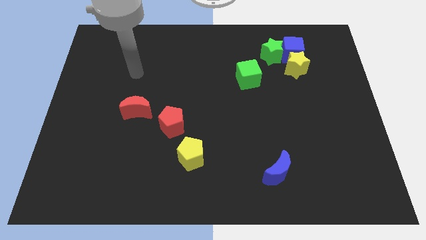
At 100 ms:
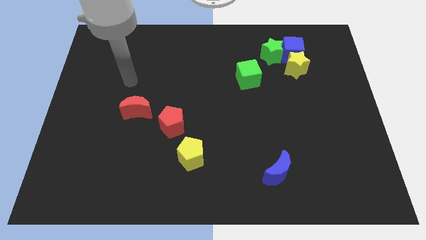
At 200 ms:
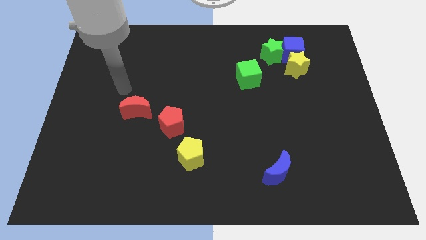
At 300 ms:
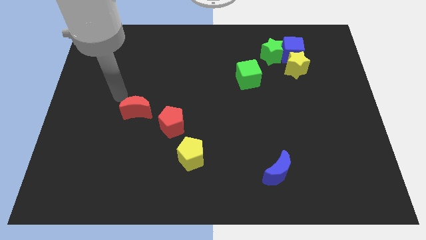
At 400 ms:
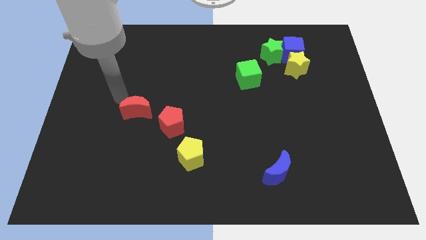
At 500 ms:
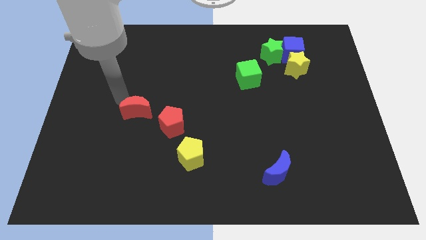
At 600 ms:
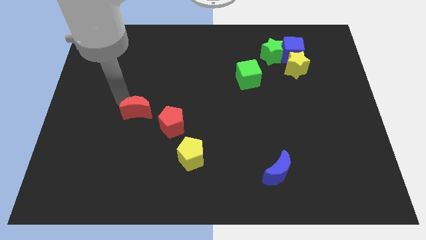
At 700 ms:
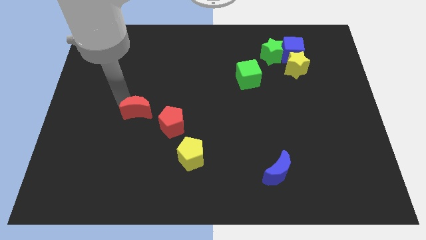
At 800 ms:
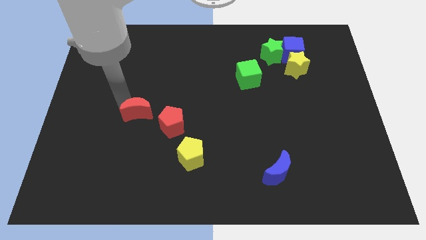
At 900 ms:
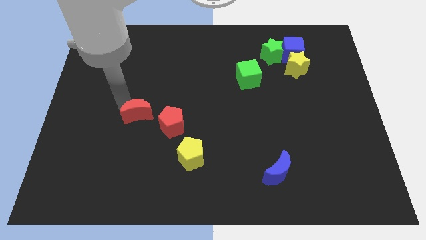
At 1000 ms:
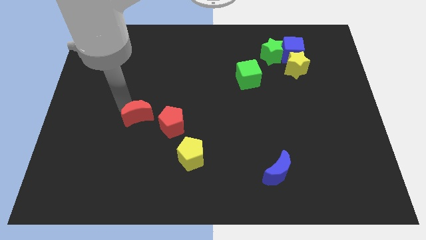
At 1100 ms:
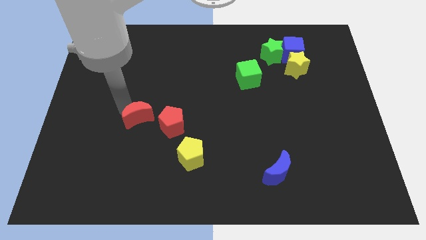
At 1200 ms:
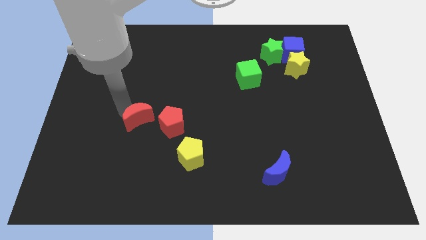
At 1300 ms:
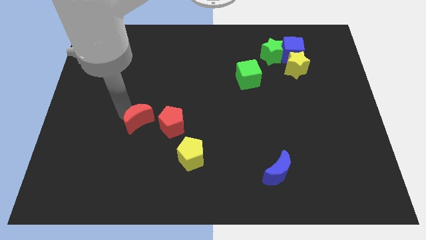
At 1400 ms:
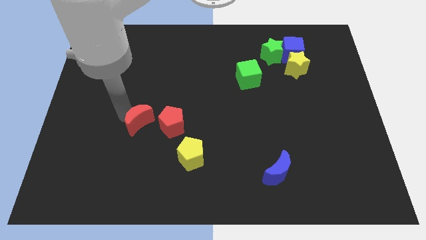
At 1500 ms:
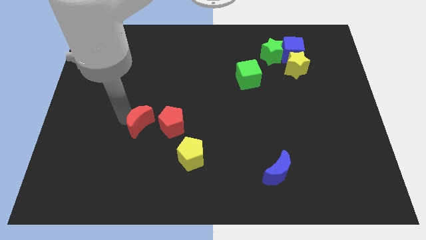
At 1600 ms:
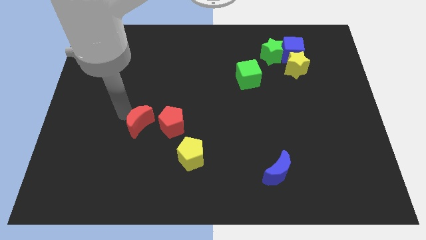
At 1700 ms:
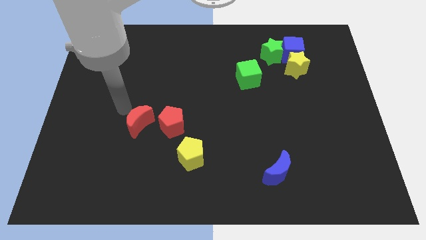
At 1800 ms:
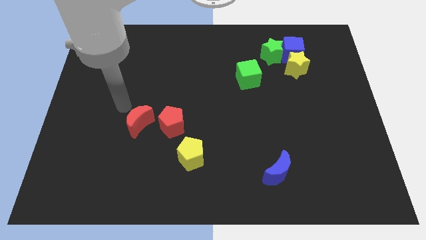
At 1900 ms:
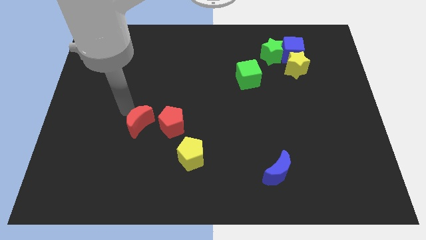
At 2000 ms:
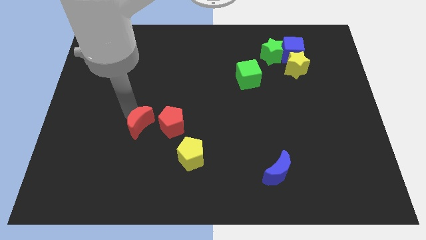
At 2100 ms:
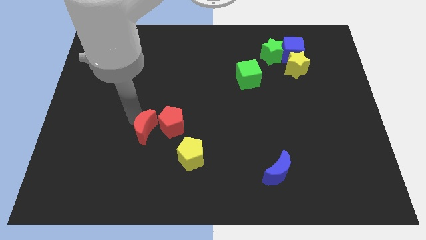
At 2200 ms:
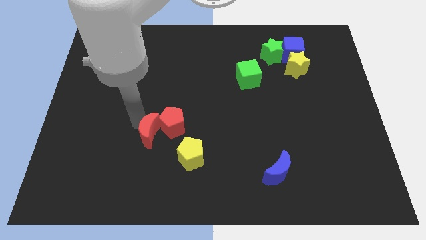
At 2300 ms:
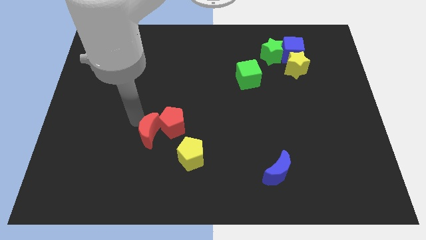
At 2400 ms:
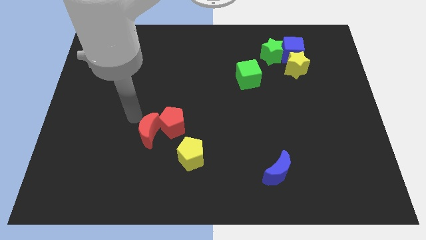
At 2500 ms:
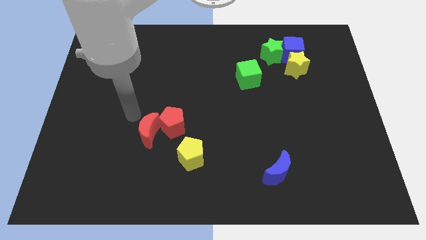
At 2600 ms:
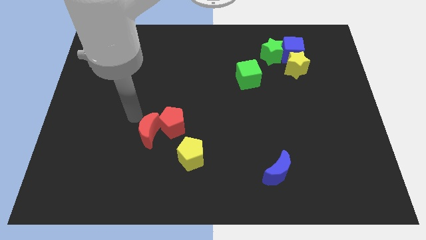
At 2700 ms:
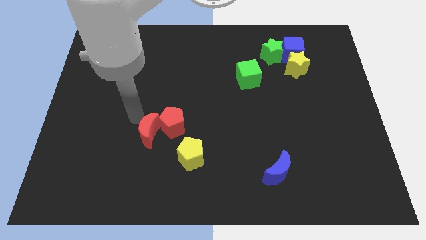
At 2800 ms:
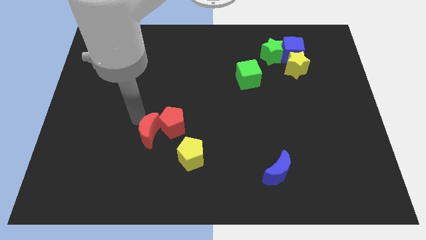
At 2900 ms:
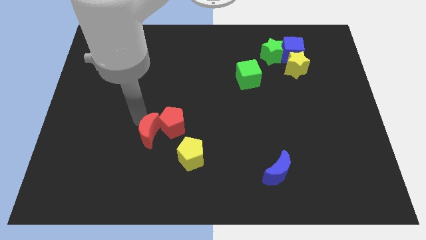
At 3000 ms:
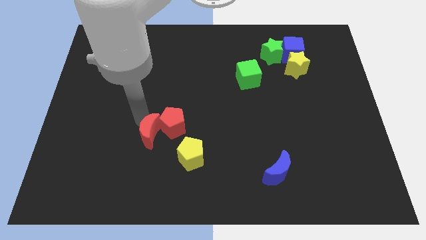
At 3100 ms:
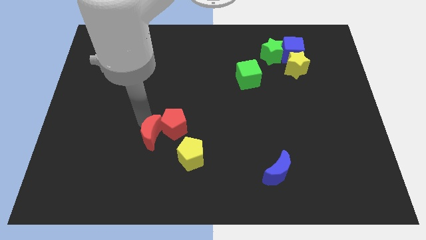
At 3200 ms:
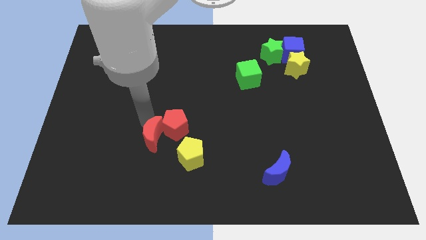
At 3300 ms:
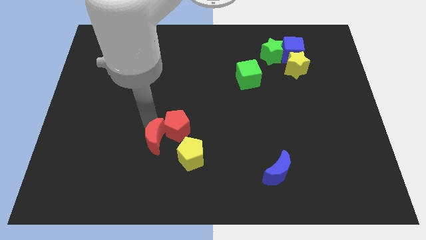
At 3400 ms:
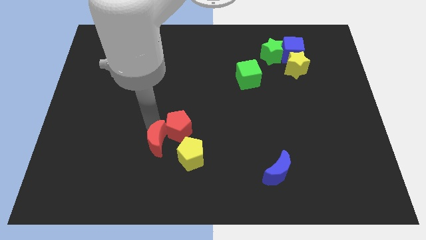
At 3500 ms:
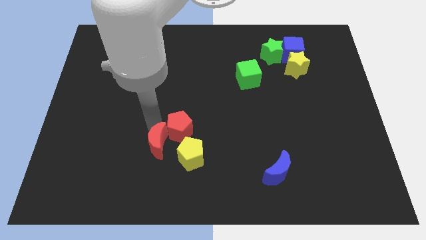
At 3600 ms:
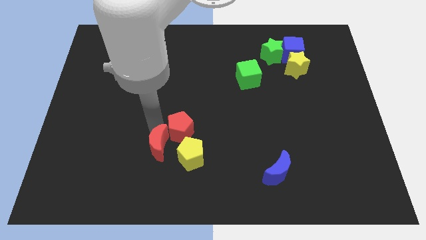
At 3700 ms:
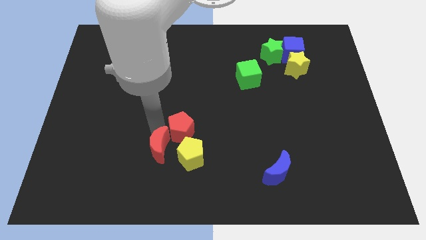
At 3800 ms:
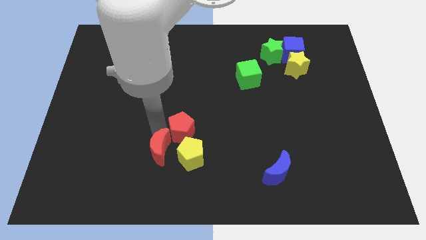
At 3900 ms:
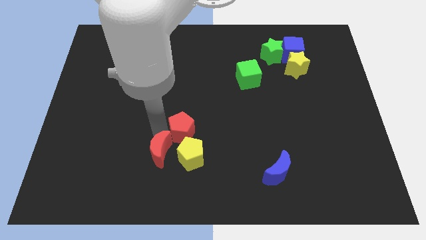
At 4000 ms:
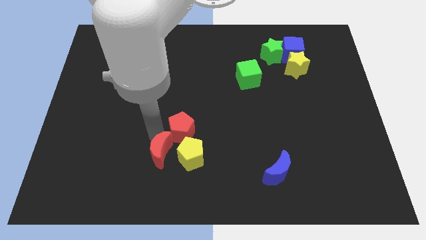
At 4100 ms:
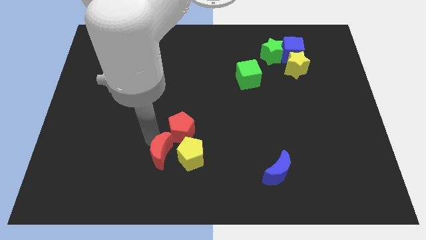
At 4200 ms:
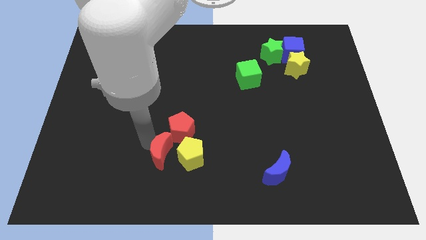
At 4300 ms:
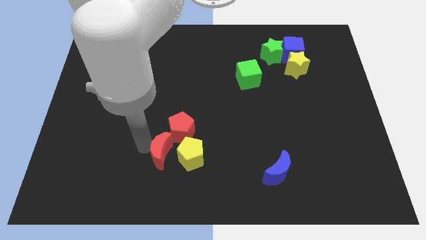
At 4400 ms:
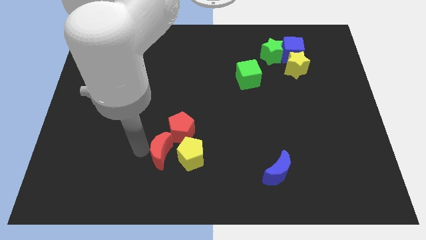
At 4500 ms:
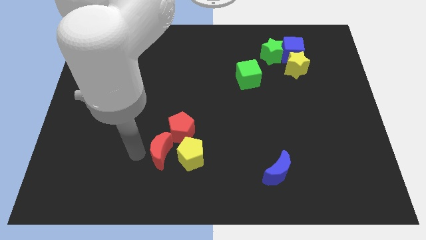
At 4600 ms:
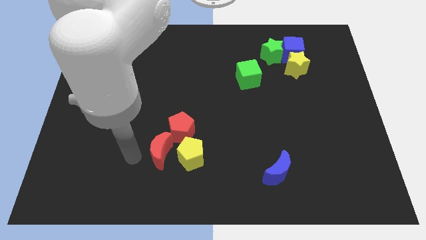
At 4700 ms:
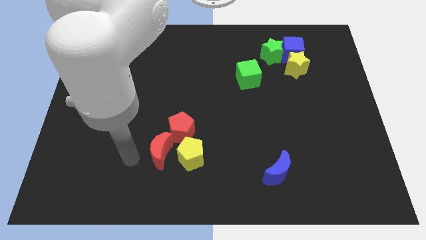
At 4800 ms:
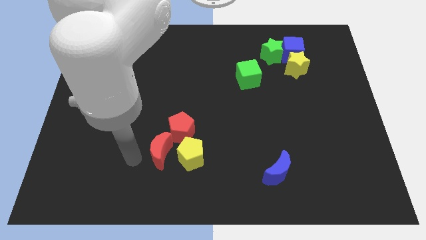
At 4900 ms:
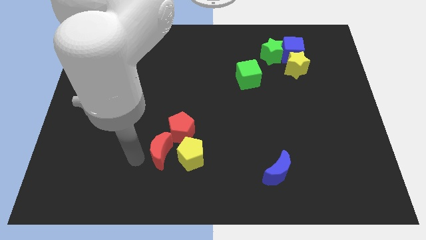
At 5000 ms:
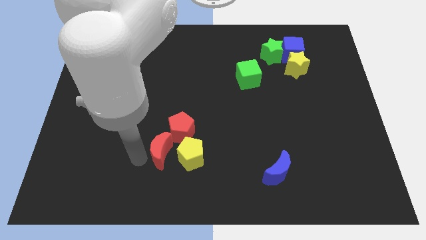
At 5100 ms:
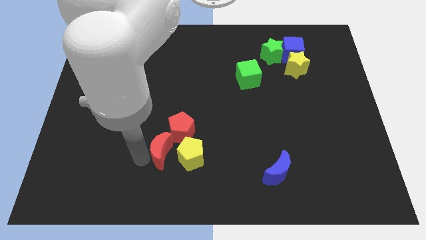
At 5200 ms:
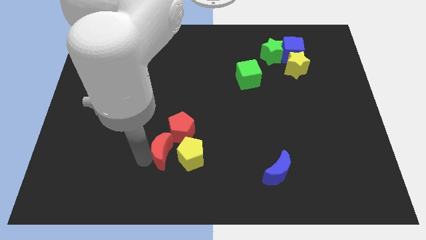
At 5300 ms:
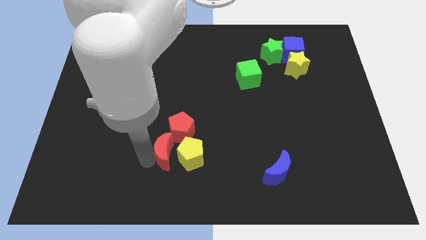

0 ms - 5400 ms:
push the red moon close to the yellow pentagon

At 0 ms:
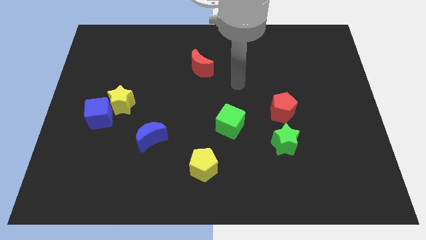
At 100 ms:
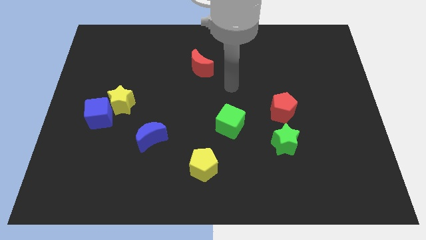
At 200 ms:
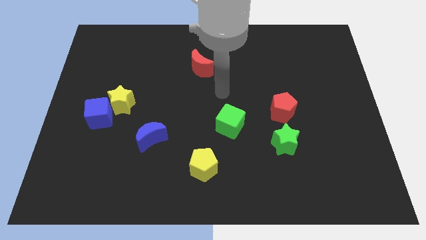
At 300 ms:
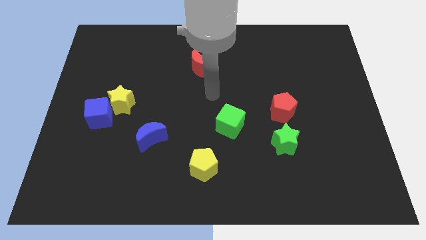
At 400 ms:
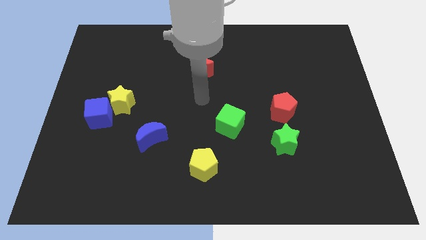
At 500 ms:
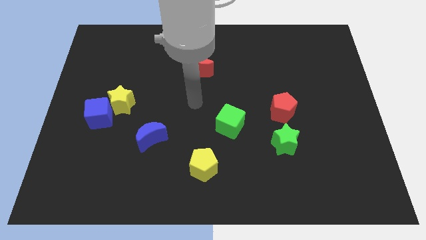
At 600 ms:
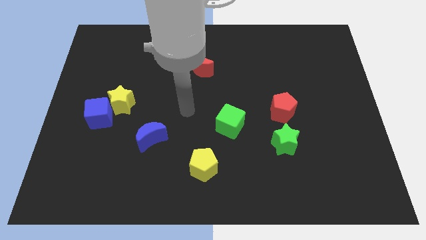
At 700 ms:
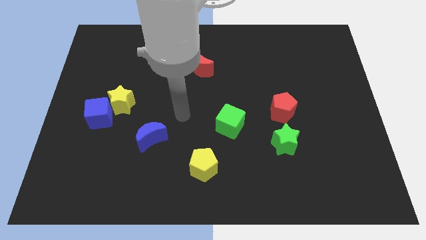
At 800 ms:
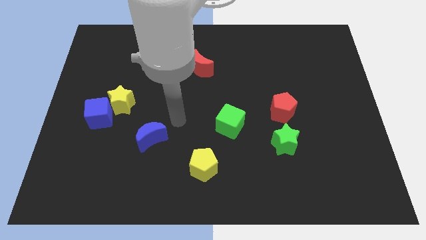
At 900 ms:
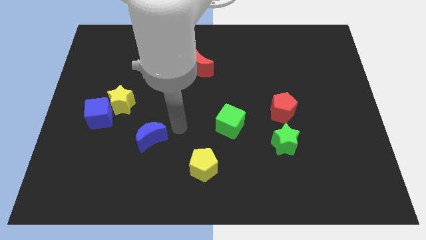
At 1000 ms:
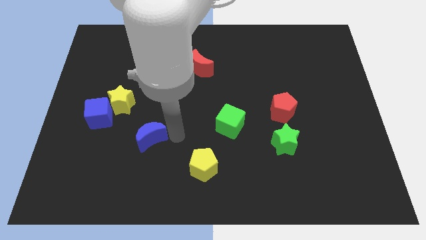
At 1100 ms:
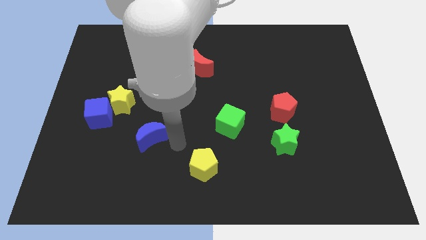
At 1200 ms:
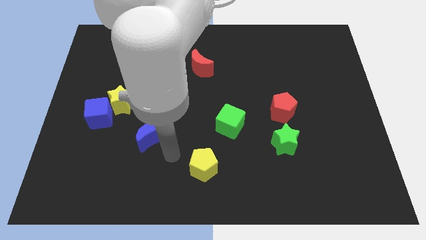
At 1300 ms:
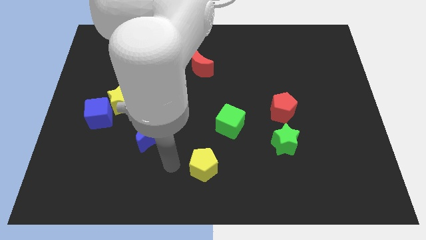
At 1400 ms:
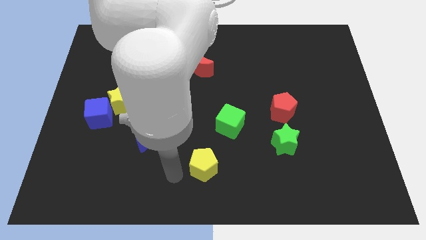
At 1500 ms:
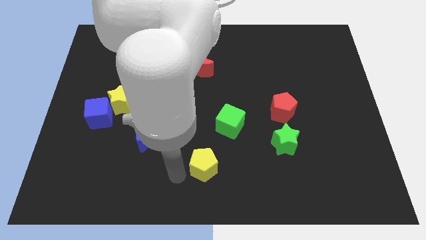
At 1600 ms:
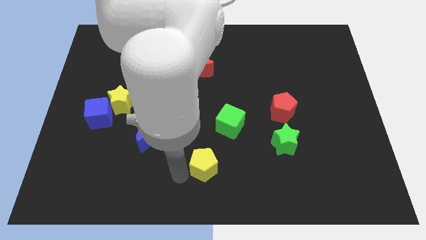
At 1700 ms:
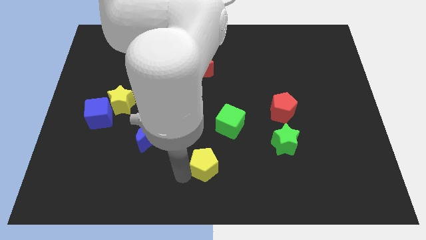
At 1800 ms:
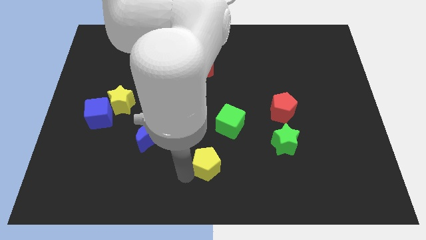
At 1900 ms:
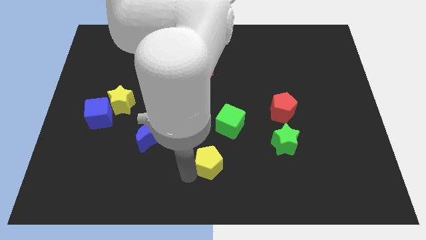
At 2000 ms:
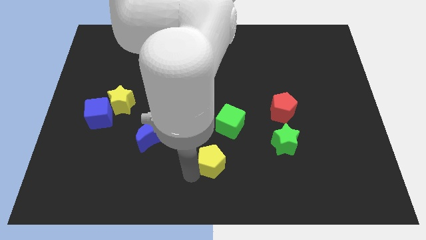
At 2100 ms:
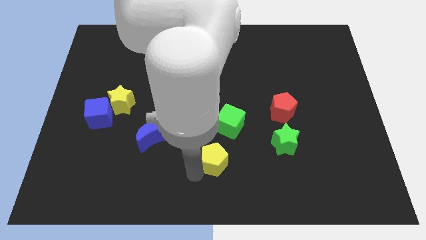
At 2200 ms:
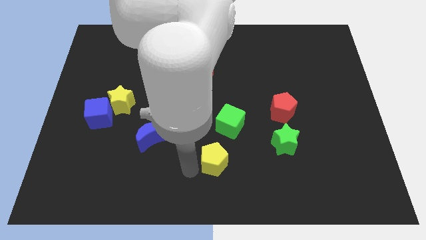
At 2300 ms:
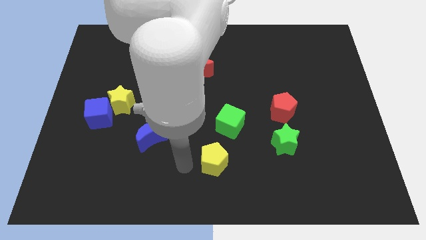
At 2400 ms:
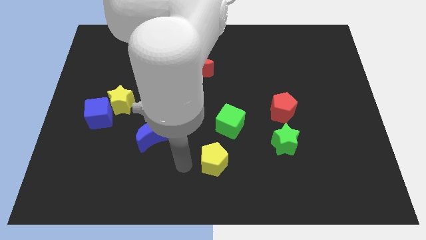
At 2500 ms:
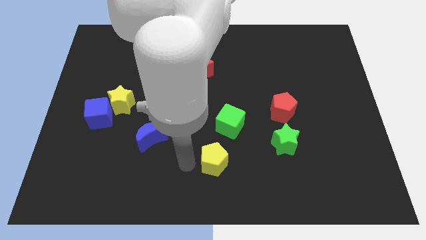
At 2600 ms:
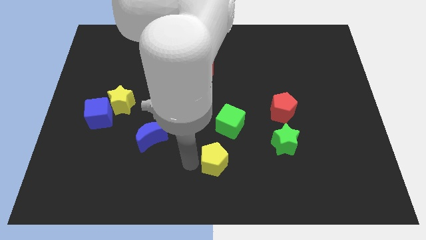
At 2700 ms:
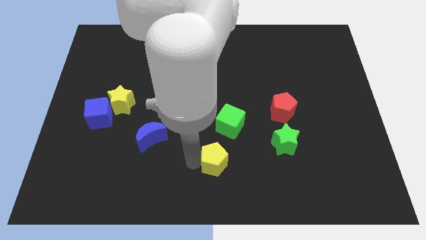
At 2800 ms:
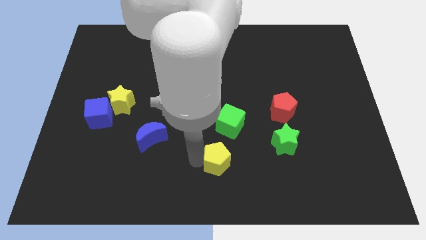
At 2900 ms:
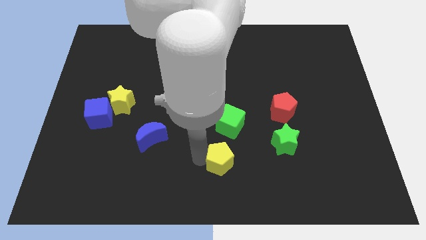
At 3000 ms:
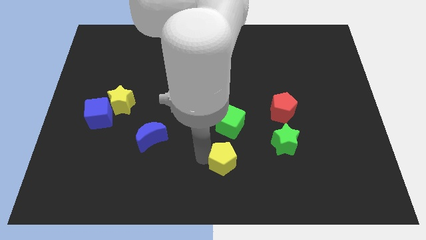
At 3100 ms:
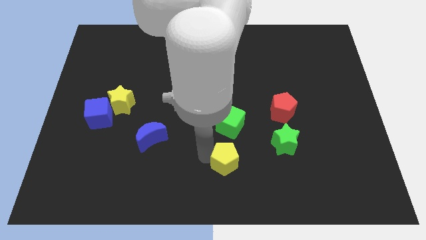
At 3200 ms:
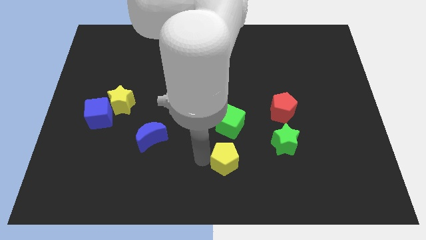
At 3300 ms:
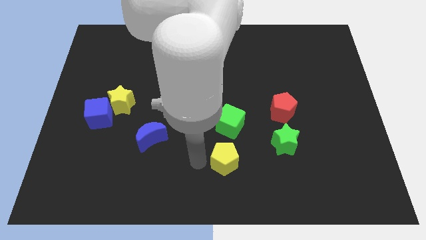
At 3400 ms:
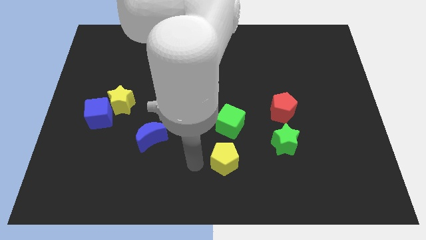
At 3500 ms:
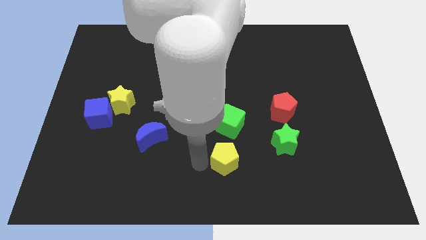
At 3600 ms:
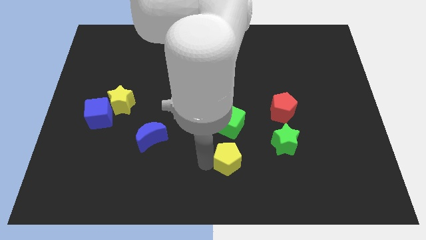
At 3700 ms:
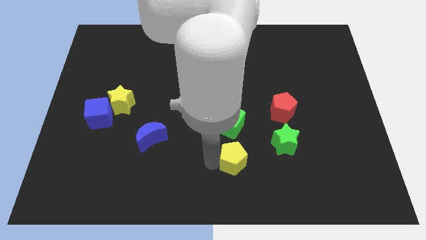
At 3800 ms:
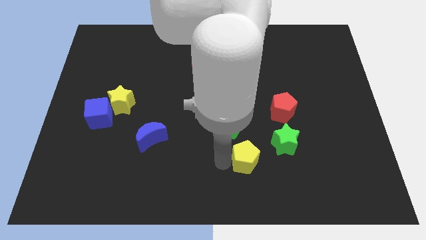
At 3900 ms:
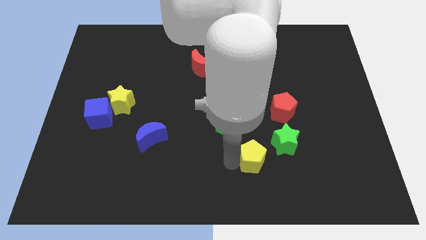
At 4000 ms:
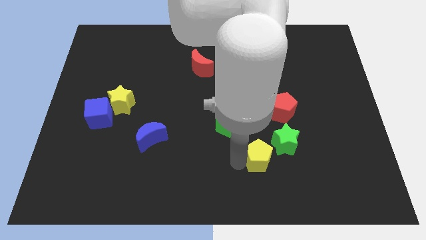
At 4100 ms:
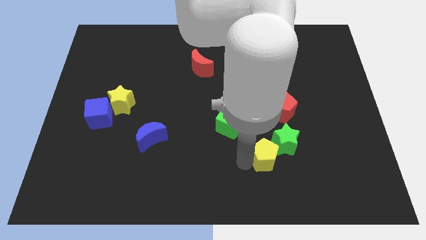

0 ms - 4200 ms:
push the yellow pentagon close to the green star
